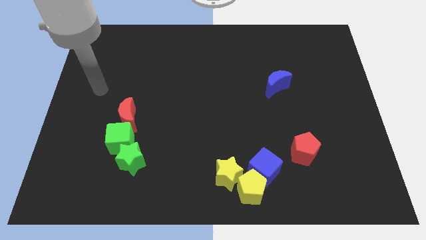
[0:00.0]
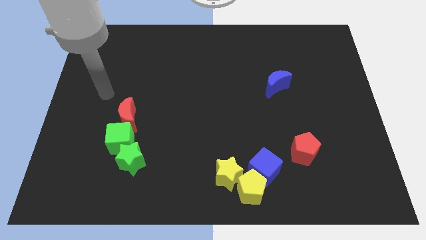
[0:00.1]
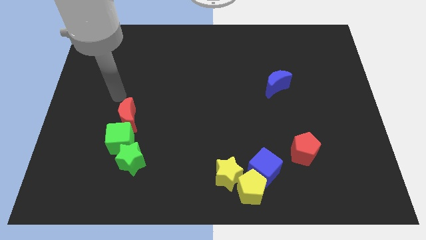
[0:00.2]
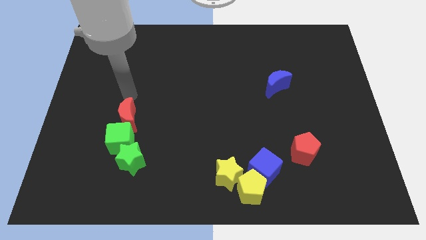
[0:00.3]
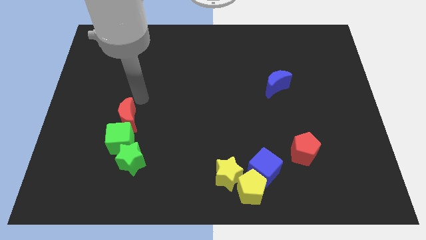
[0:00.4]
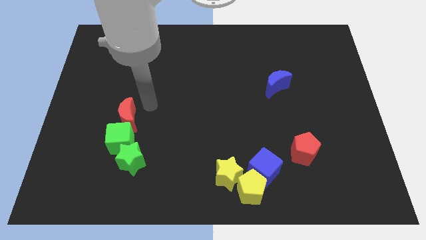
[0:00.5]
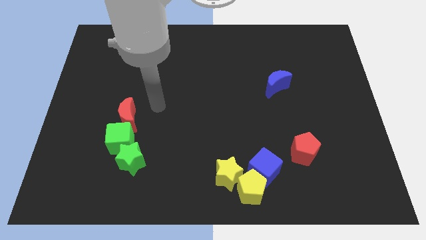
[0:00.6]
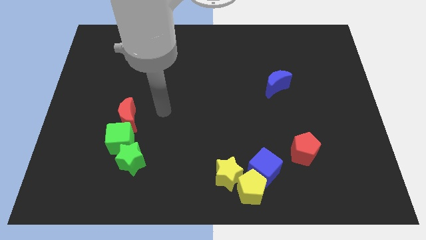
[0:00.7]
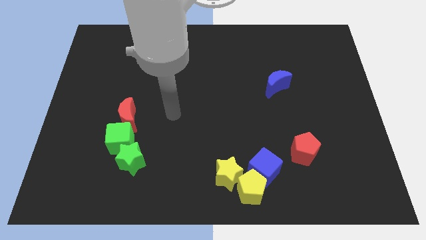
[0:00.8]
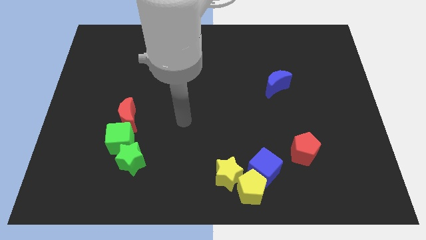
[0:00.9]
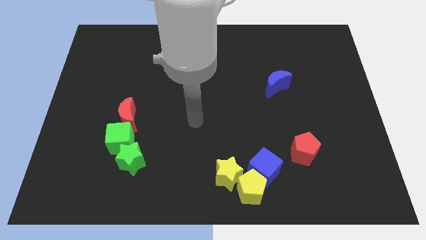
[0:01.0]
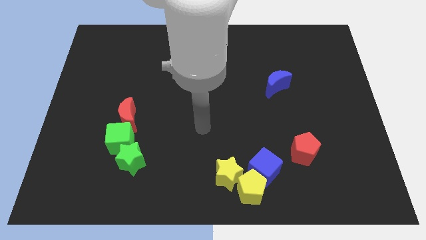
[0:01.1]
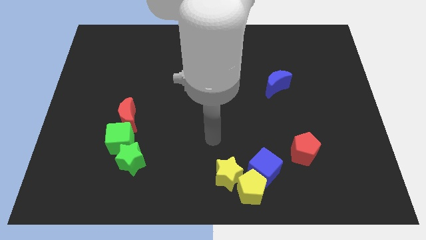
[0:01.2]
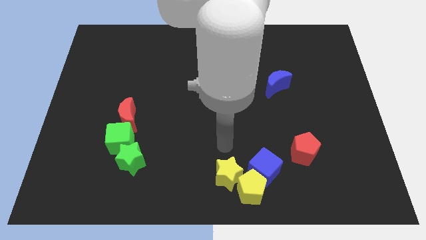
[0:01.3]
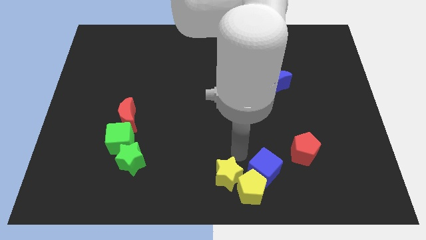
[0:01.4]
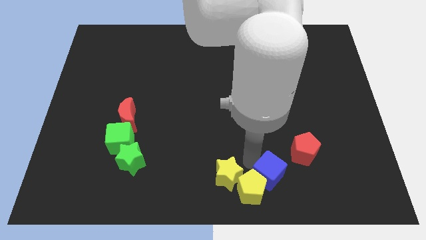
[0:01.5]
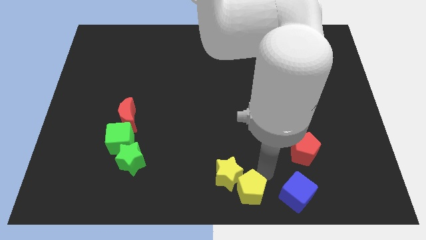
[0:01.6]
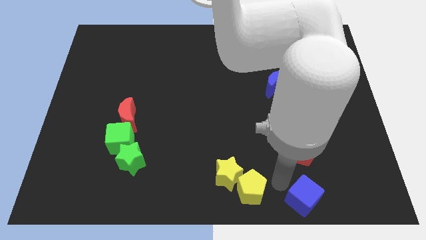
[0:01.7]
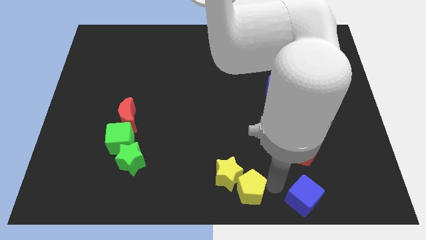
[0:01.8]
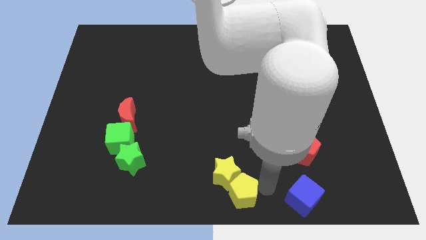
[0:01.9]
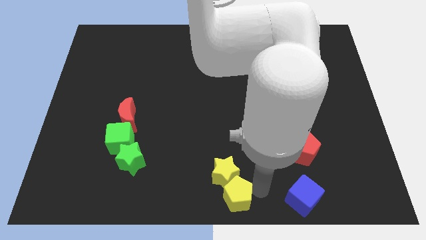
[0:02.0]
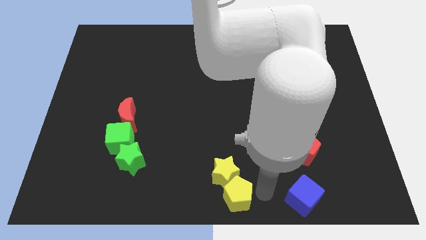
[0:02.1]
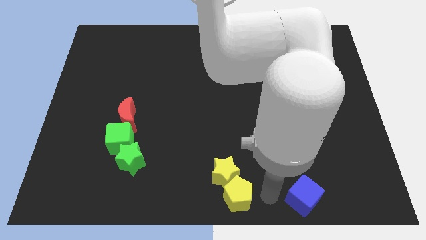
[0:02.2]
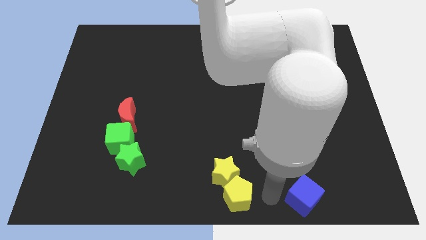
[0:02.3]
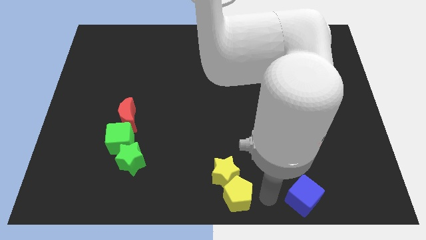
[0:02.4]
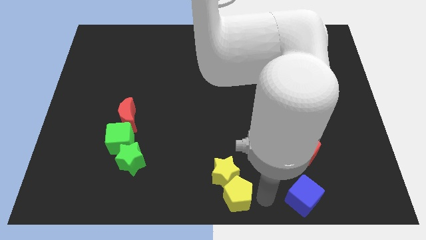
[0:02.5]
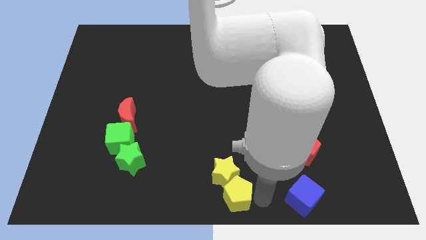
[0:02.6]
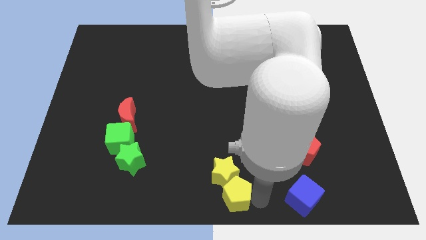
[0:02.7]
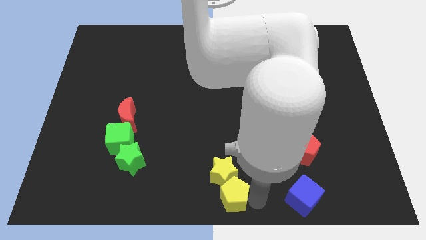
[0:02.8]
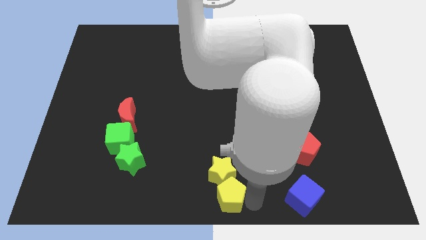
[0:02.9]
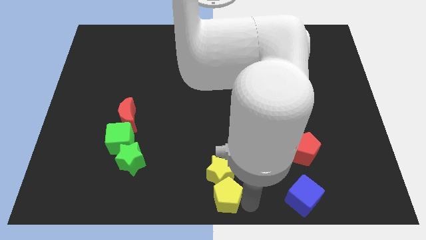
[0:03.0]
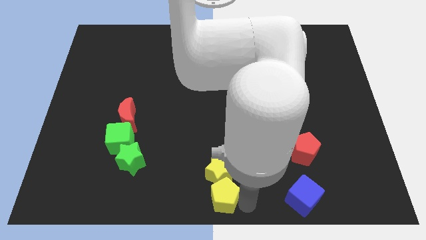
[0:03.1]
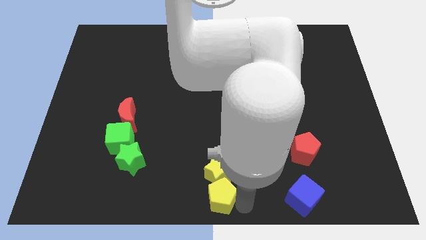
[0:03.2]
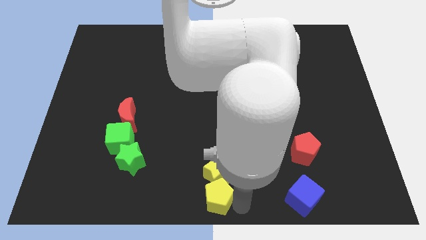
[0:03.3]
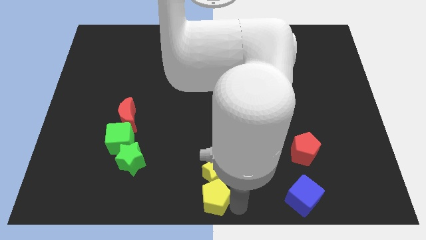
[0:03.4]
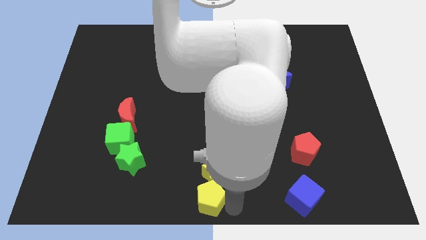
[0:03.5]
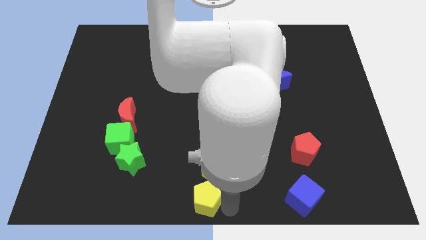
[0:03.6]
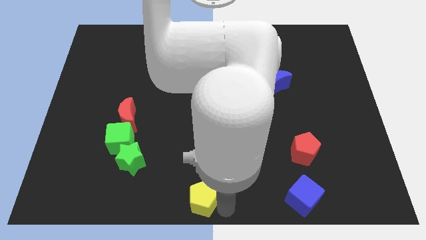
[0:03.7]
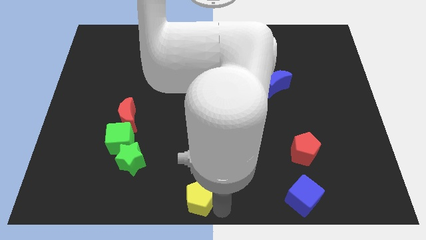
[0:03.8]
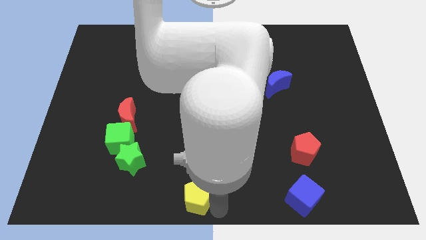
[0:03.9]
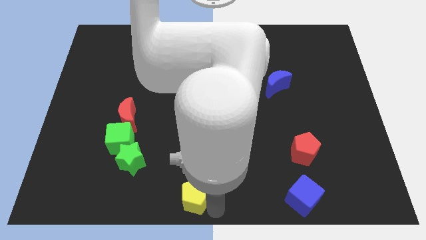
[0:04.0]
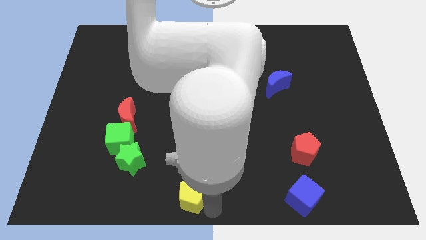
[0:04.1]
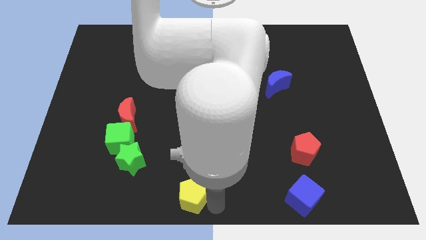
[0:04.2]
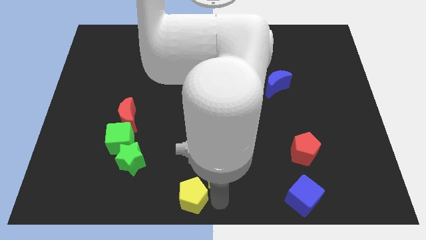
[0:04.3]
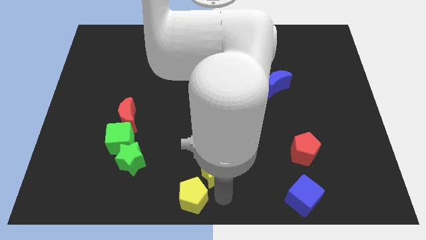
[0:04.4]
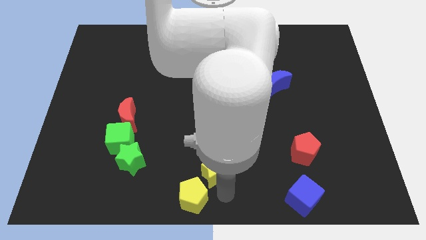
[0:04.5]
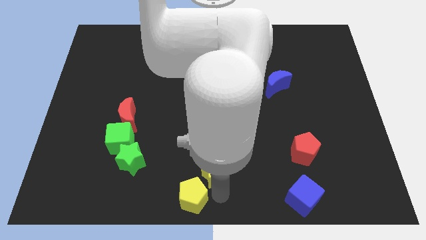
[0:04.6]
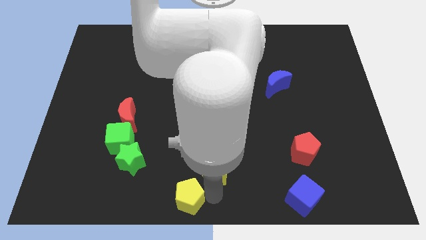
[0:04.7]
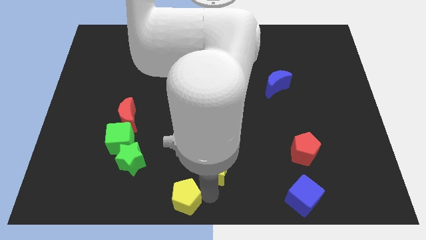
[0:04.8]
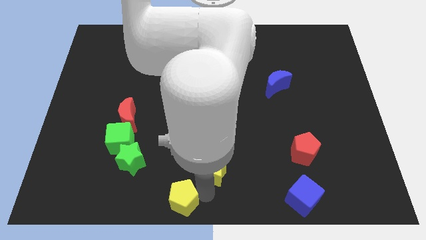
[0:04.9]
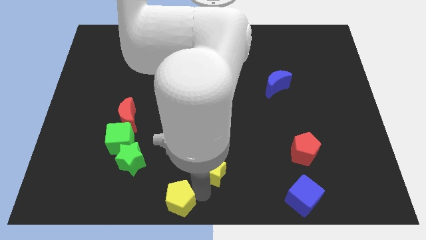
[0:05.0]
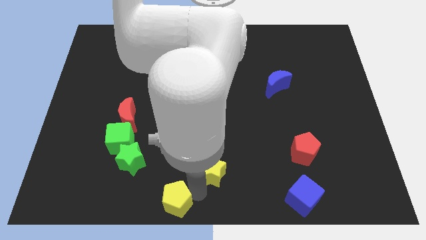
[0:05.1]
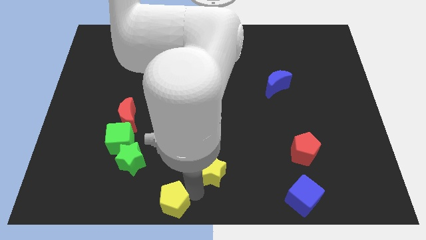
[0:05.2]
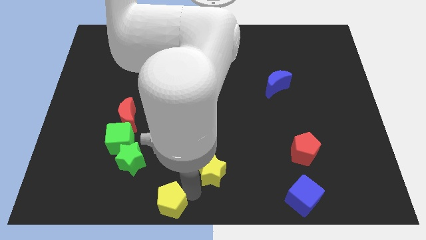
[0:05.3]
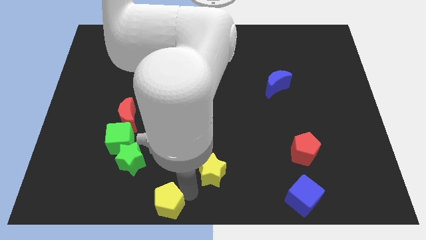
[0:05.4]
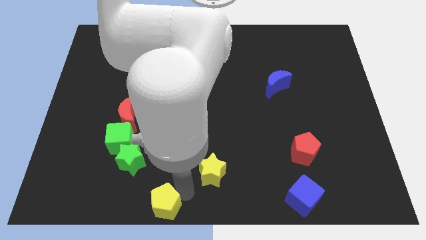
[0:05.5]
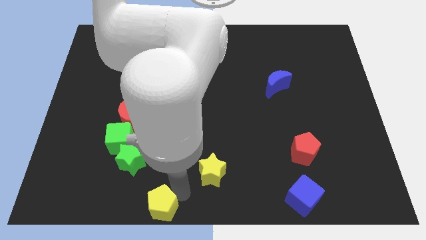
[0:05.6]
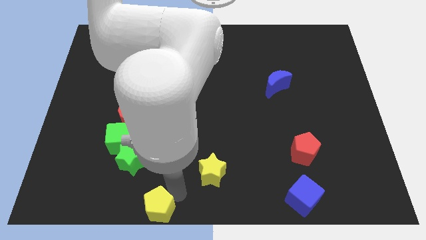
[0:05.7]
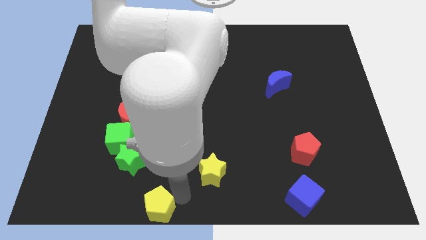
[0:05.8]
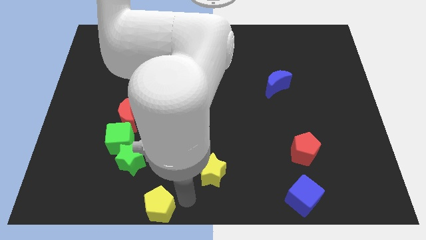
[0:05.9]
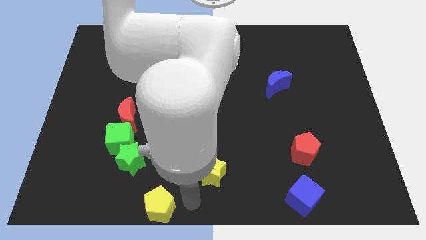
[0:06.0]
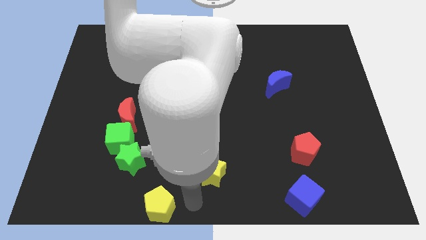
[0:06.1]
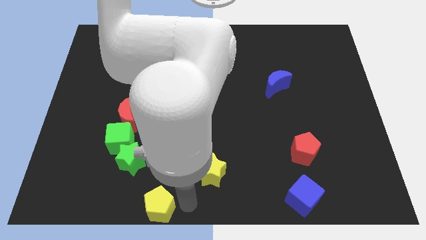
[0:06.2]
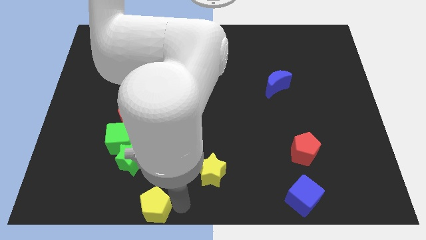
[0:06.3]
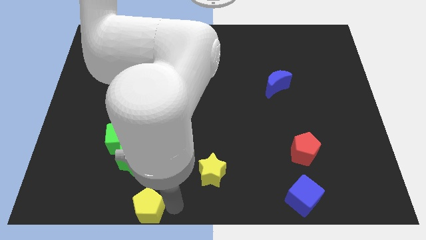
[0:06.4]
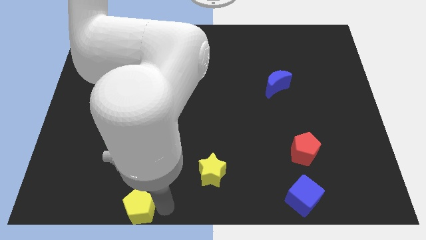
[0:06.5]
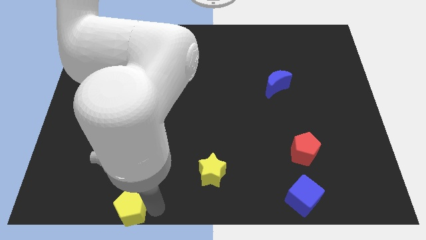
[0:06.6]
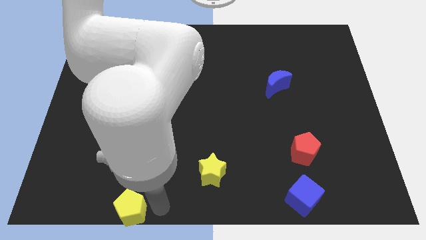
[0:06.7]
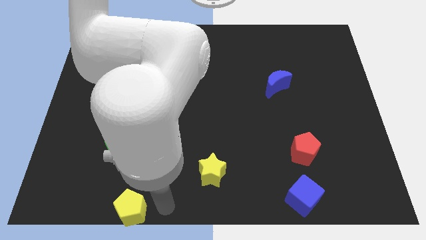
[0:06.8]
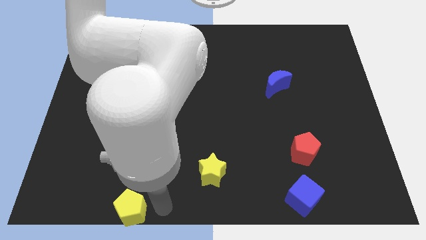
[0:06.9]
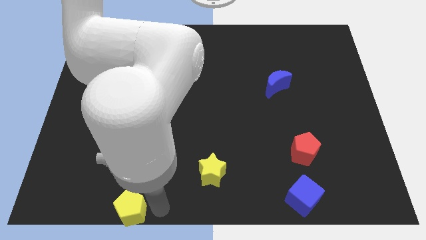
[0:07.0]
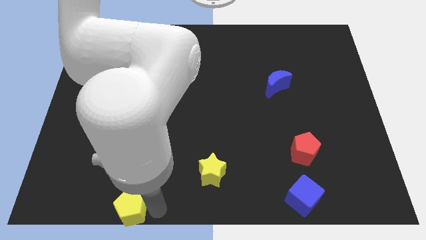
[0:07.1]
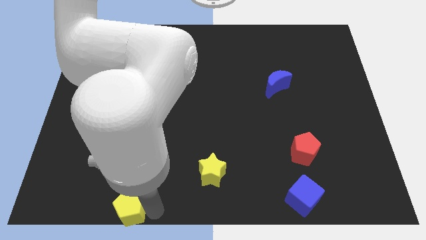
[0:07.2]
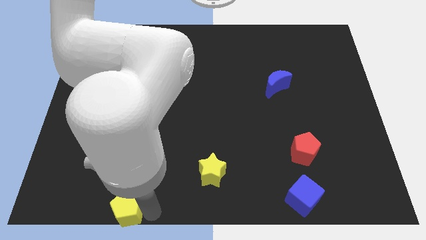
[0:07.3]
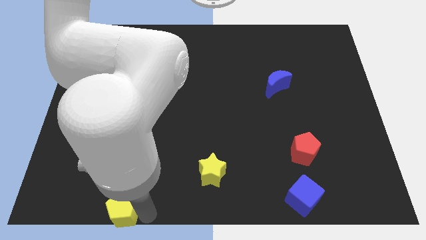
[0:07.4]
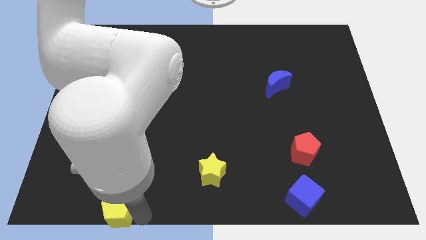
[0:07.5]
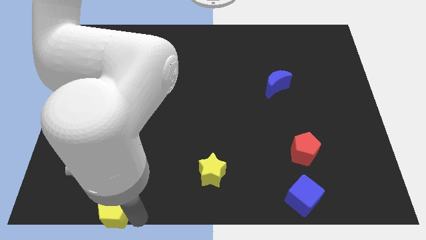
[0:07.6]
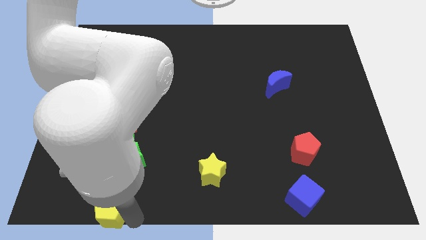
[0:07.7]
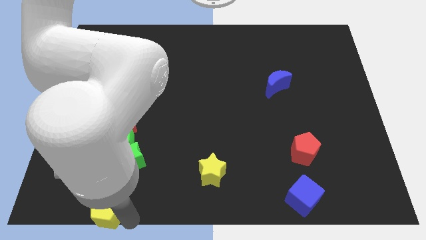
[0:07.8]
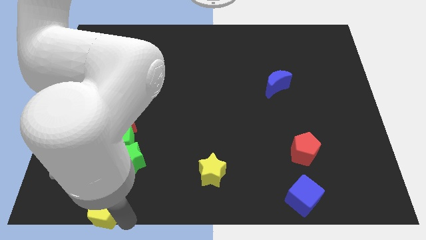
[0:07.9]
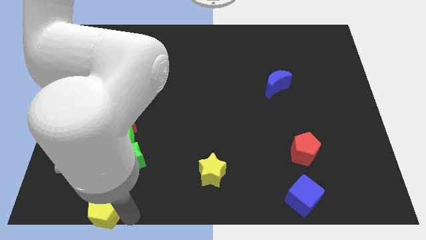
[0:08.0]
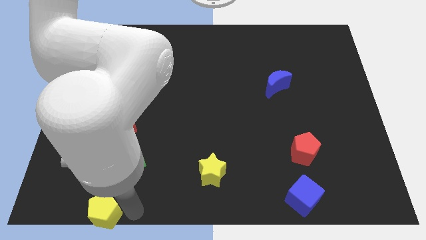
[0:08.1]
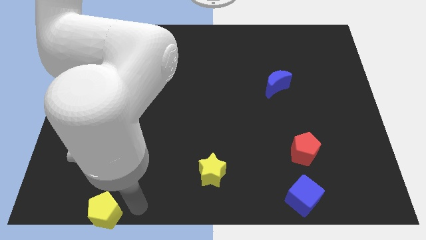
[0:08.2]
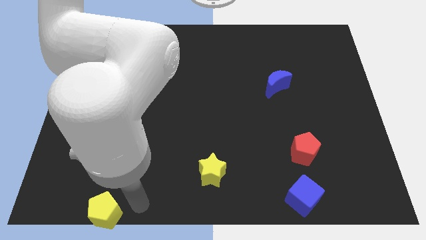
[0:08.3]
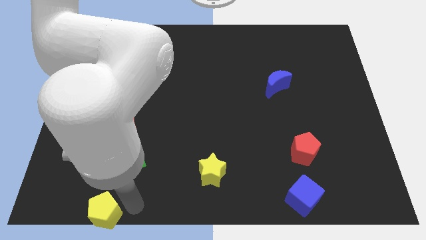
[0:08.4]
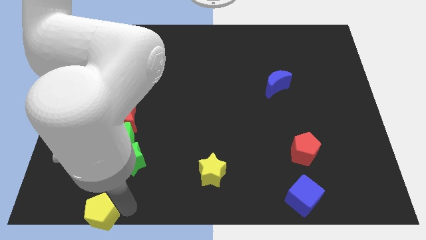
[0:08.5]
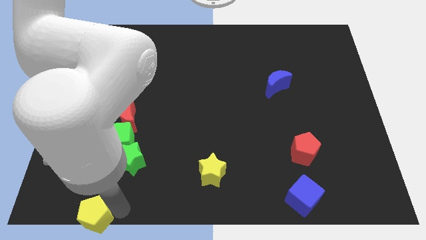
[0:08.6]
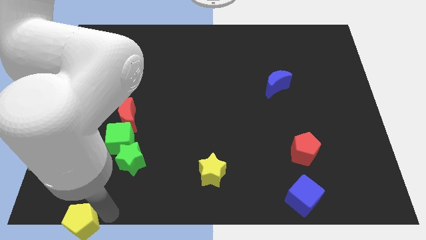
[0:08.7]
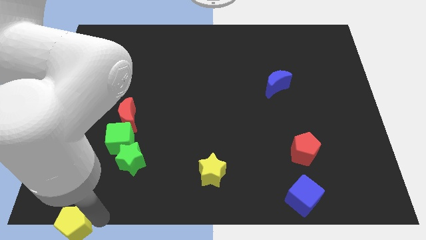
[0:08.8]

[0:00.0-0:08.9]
move the yellow pentagon to the bottom left corner
